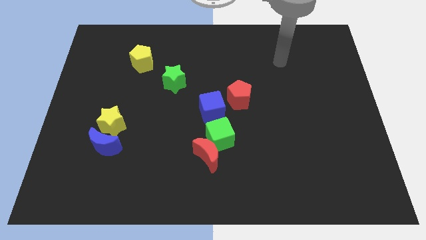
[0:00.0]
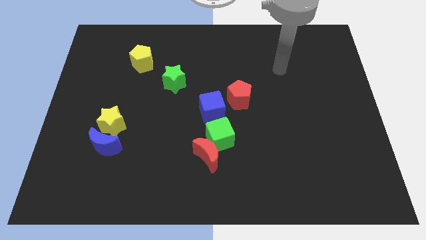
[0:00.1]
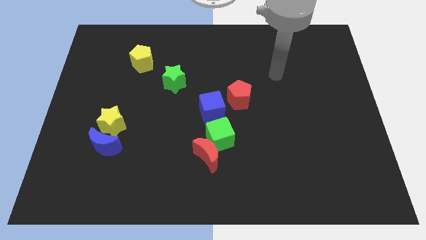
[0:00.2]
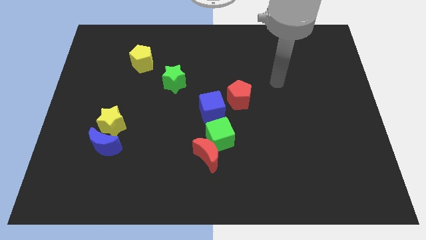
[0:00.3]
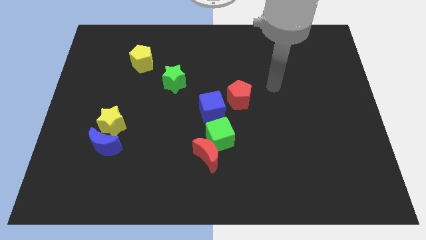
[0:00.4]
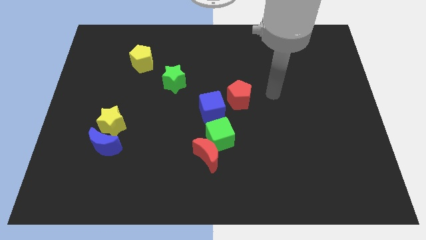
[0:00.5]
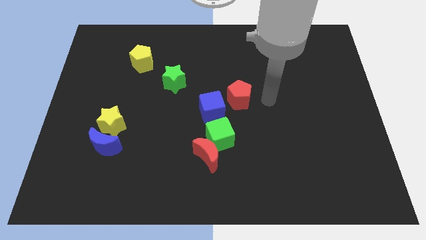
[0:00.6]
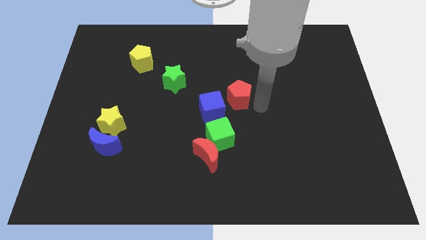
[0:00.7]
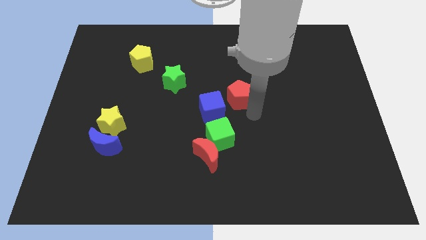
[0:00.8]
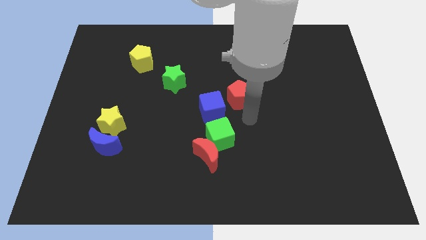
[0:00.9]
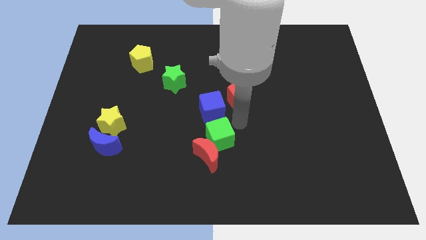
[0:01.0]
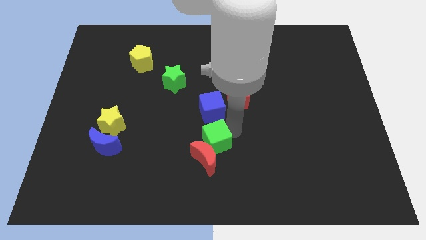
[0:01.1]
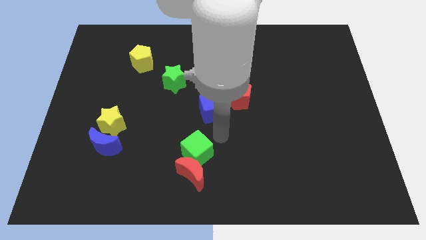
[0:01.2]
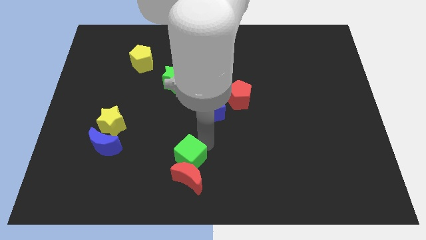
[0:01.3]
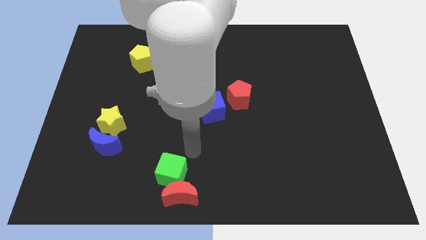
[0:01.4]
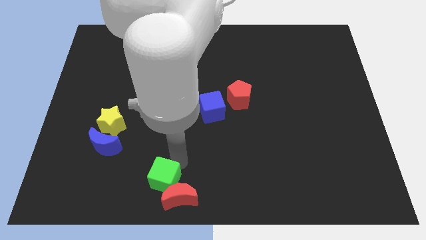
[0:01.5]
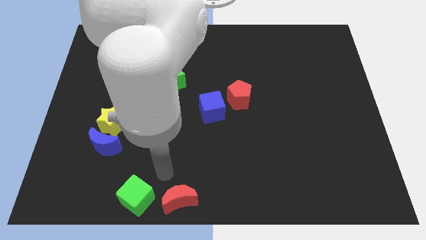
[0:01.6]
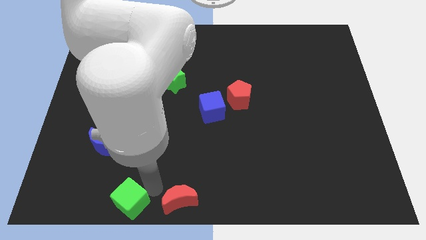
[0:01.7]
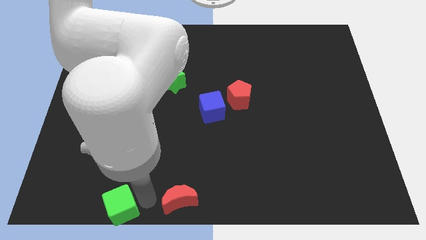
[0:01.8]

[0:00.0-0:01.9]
move the red moon away from the green cube

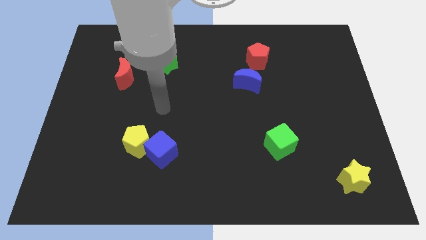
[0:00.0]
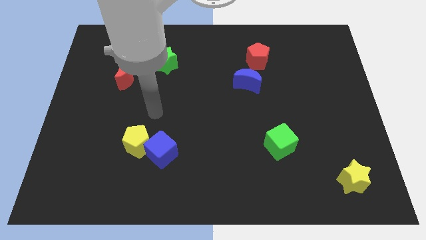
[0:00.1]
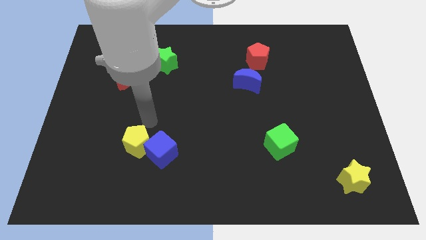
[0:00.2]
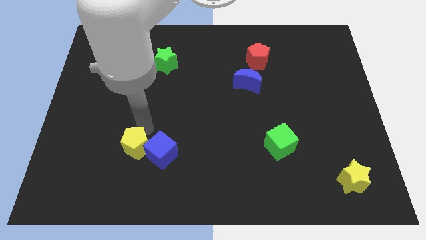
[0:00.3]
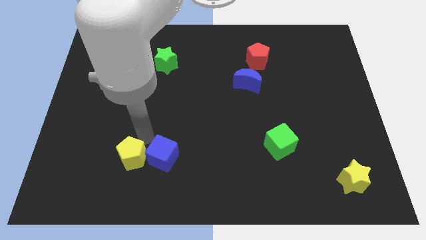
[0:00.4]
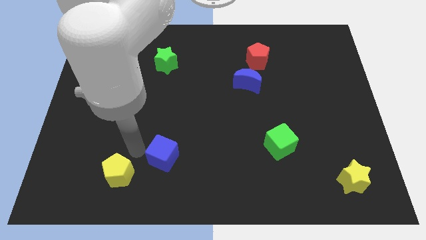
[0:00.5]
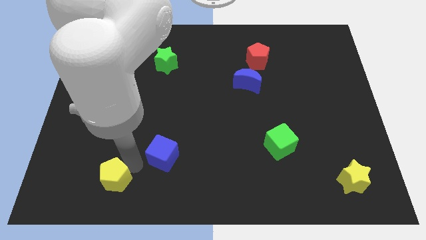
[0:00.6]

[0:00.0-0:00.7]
move the blue cube away from the yellow pentagon

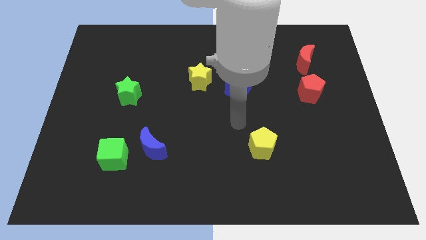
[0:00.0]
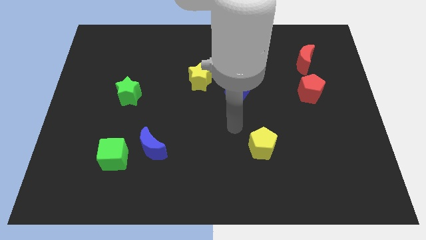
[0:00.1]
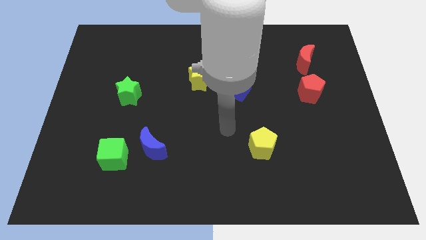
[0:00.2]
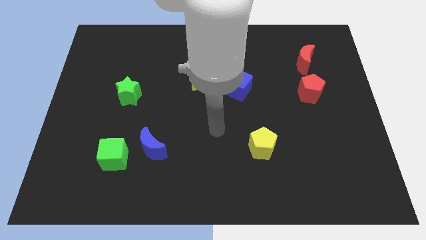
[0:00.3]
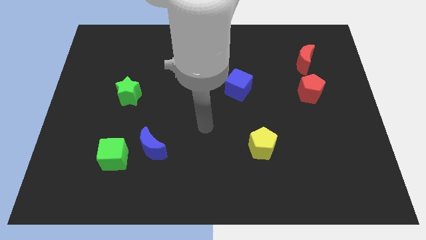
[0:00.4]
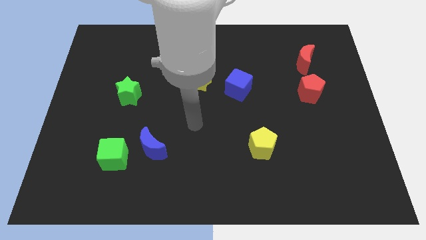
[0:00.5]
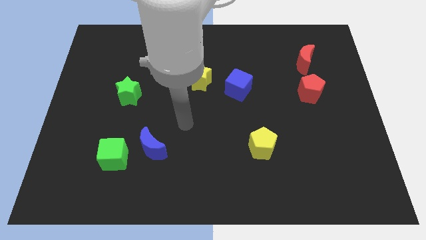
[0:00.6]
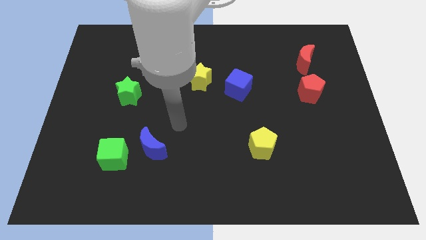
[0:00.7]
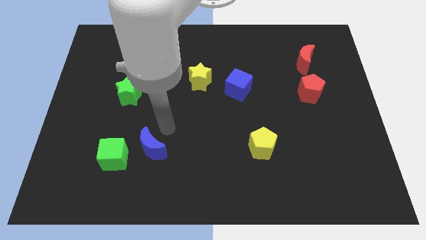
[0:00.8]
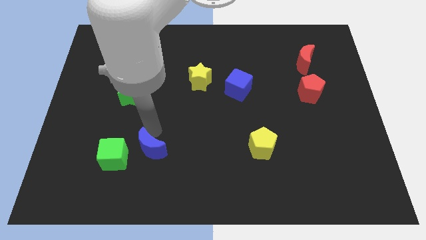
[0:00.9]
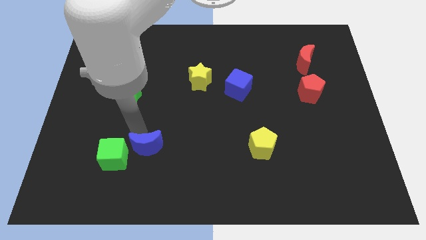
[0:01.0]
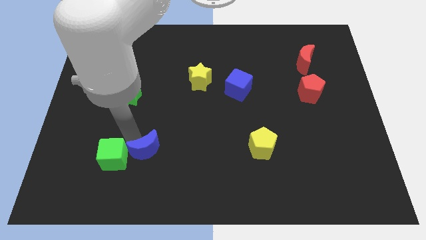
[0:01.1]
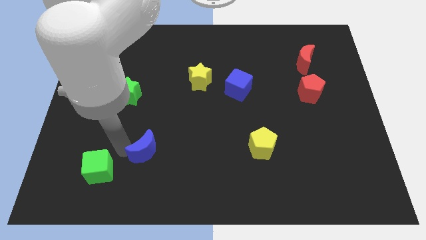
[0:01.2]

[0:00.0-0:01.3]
move the blue moon away from the green cube

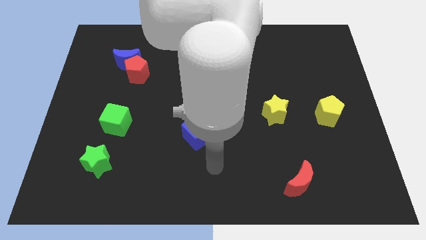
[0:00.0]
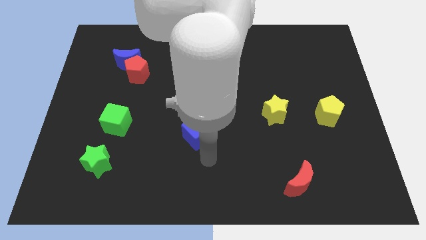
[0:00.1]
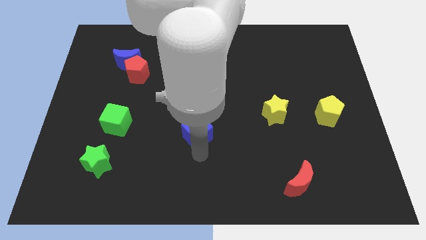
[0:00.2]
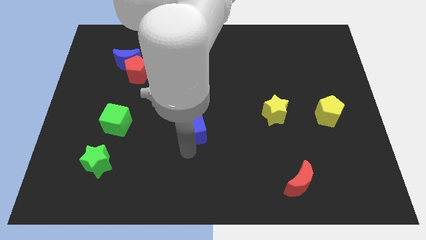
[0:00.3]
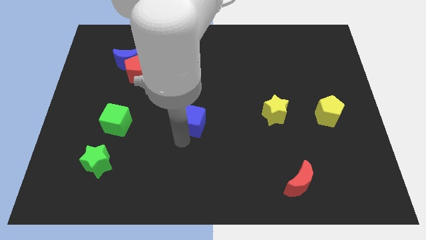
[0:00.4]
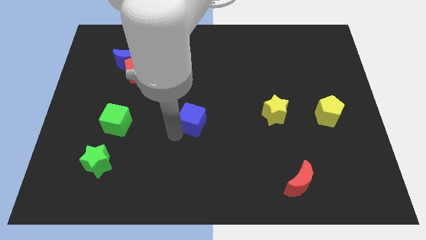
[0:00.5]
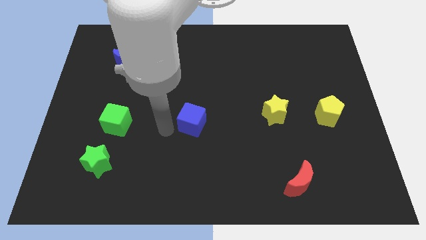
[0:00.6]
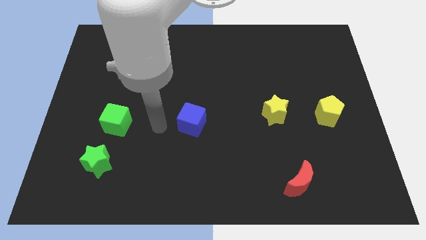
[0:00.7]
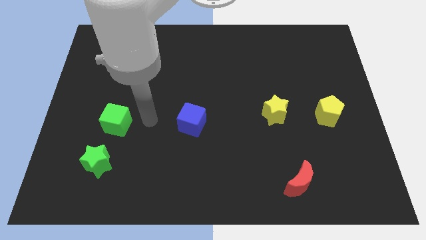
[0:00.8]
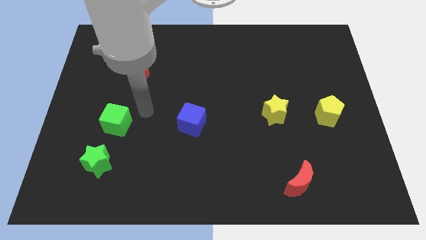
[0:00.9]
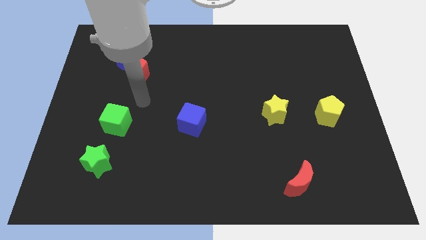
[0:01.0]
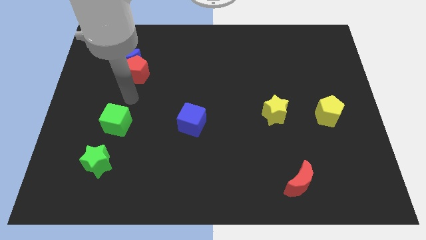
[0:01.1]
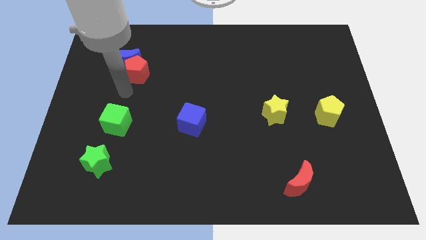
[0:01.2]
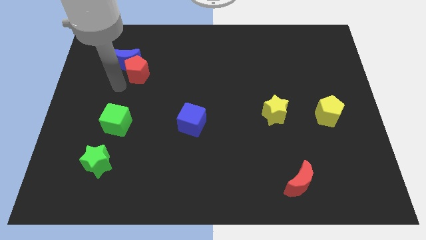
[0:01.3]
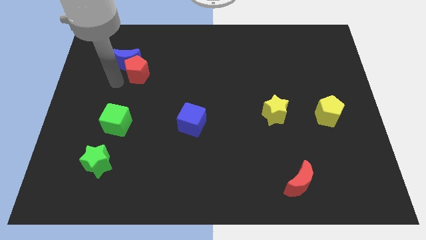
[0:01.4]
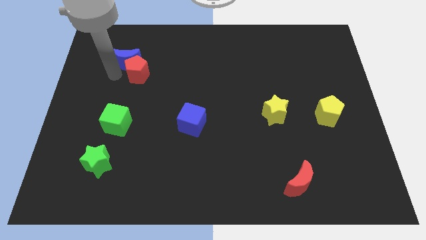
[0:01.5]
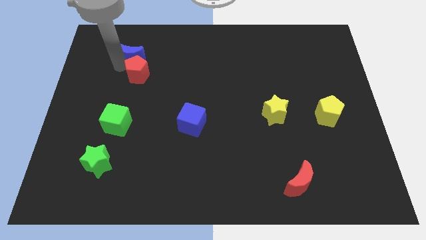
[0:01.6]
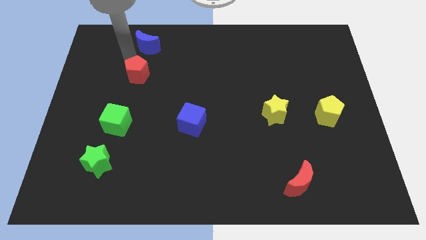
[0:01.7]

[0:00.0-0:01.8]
move the red pentagon away from the blue moon

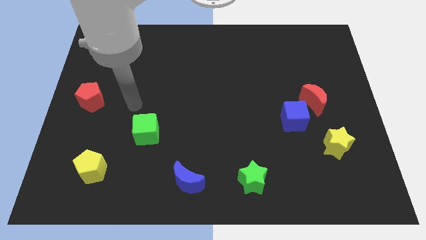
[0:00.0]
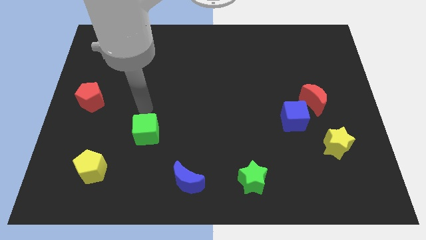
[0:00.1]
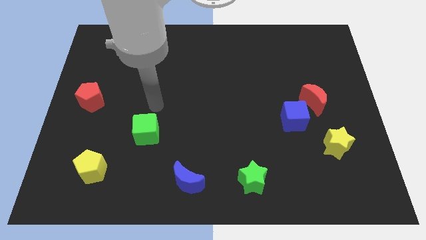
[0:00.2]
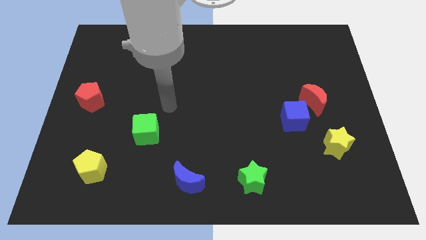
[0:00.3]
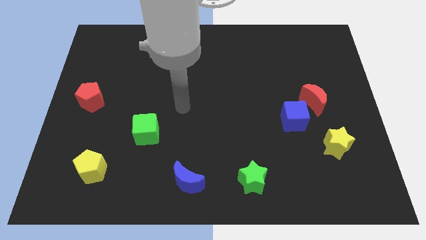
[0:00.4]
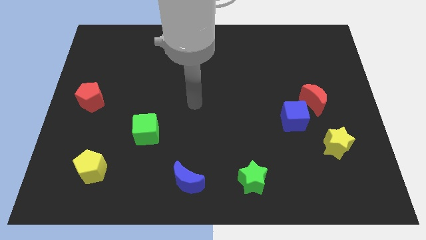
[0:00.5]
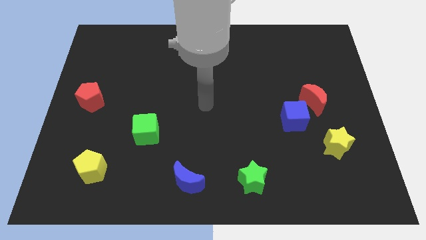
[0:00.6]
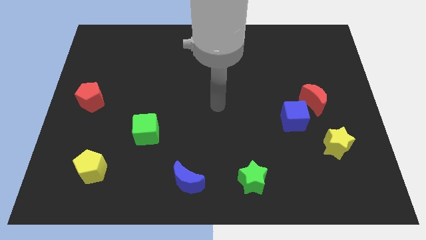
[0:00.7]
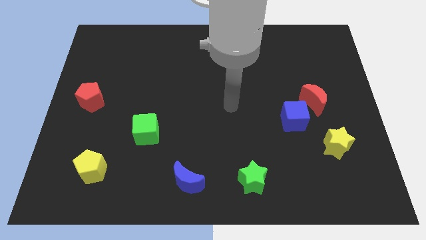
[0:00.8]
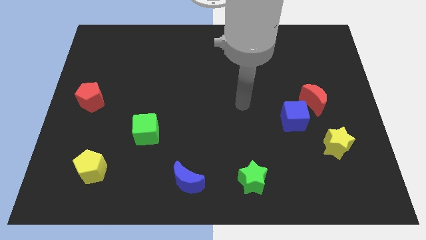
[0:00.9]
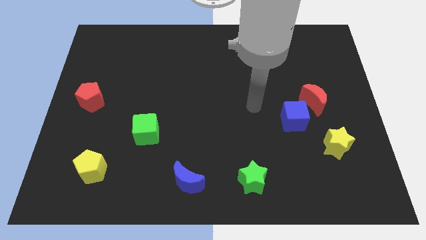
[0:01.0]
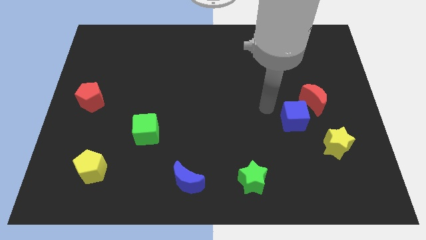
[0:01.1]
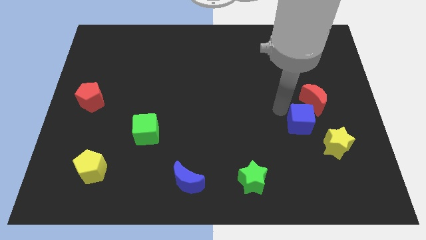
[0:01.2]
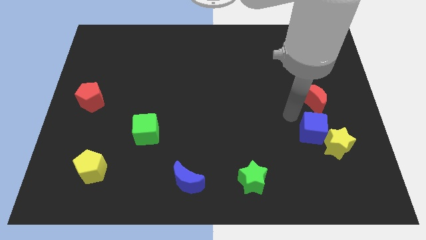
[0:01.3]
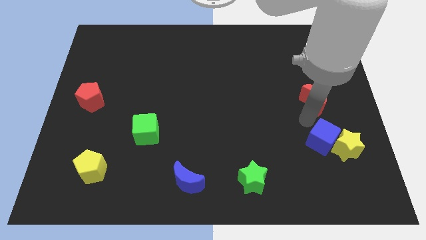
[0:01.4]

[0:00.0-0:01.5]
separate the red moon from the blue cube

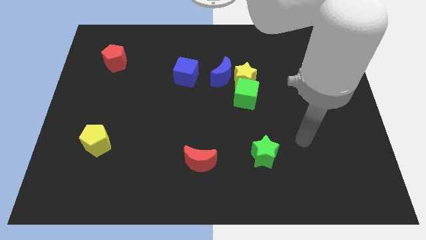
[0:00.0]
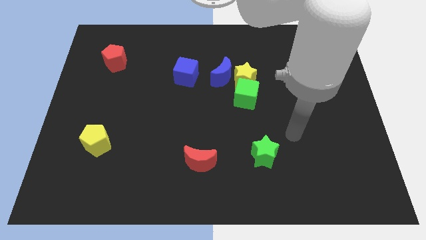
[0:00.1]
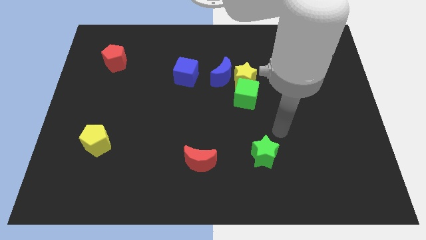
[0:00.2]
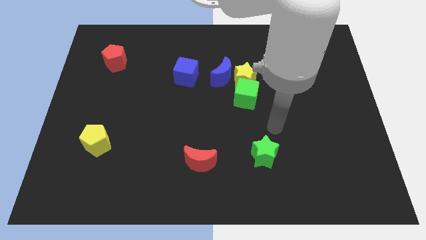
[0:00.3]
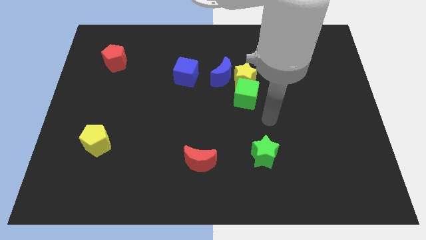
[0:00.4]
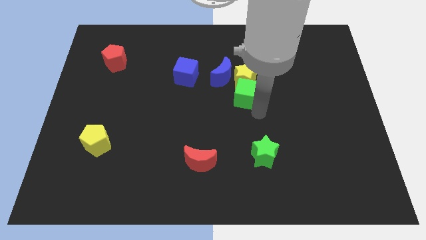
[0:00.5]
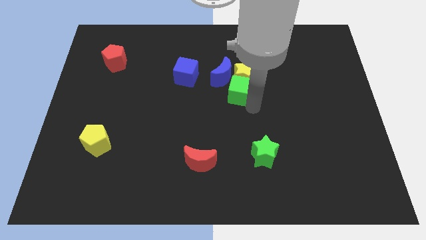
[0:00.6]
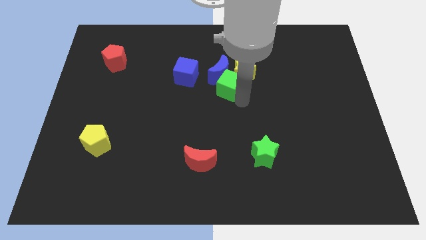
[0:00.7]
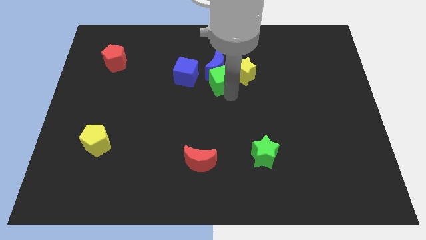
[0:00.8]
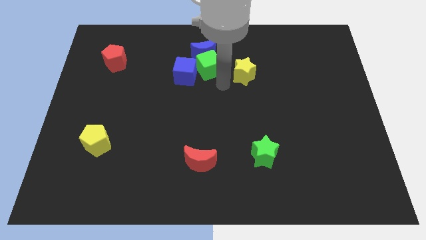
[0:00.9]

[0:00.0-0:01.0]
separate the yellow star from the blue moon and green cube

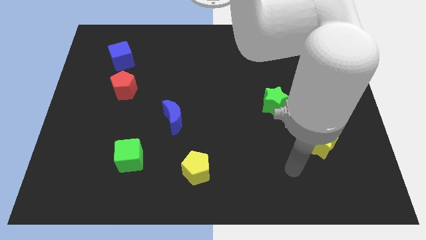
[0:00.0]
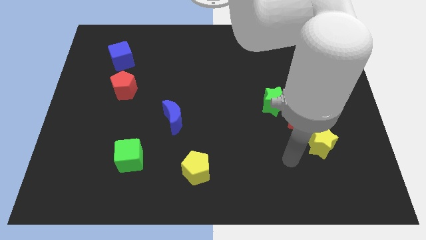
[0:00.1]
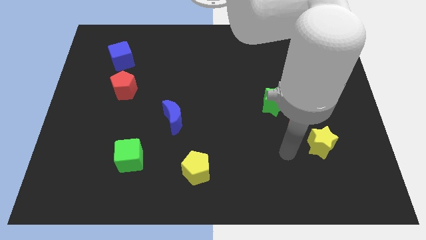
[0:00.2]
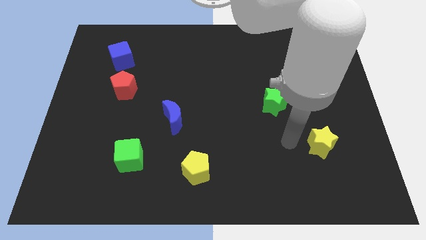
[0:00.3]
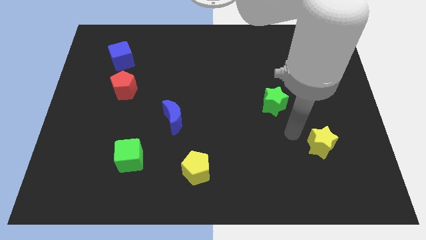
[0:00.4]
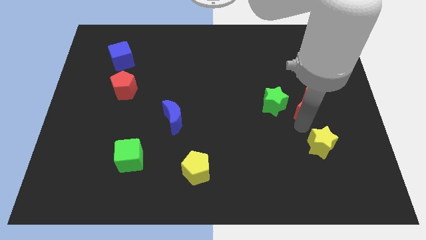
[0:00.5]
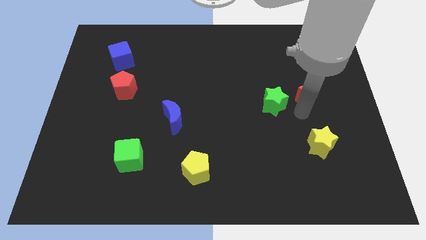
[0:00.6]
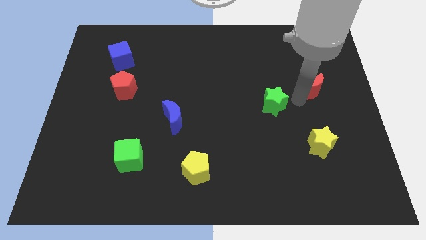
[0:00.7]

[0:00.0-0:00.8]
move the green star away from the red moon

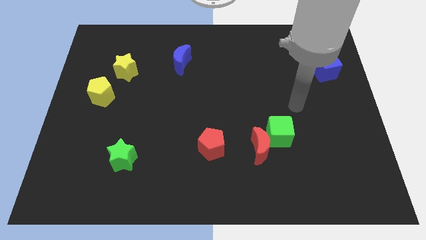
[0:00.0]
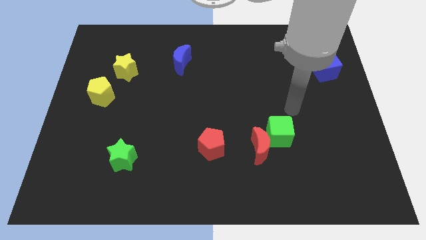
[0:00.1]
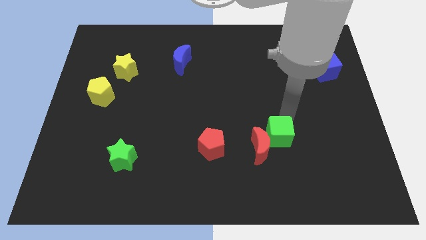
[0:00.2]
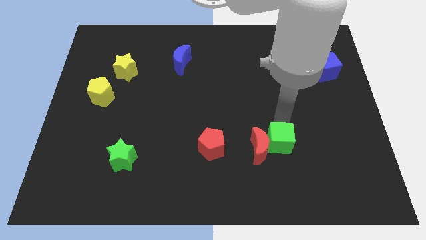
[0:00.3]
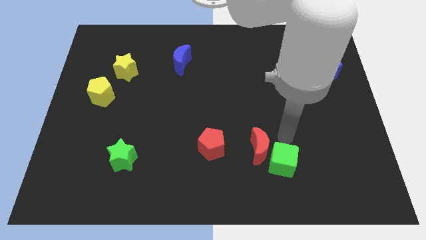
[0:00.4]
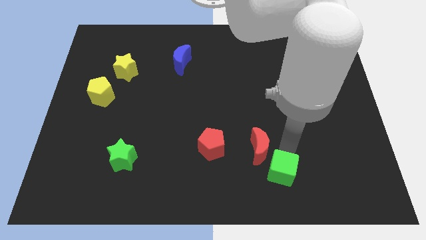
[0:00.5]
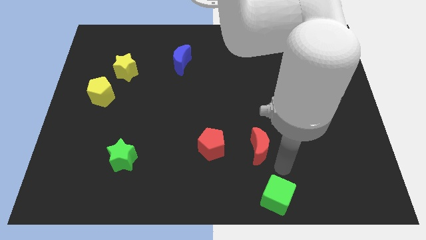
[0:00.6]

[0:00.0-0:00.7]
pull the red moon apart from the green cube
